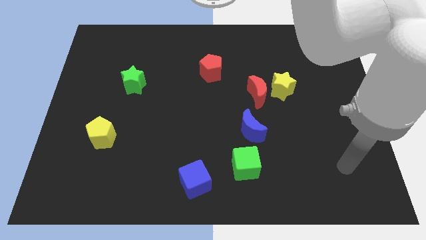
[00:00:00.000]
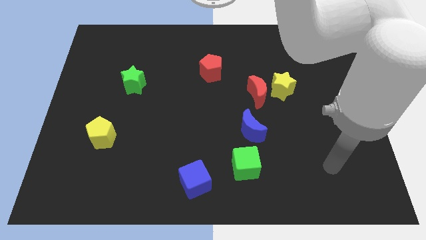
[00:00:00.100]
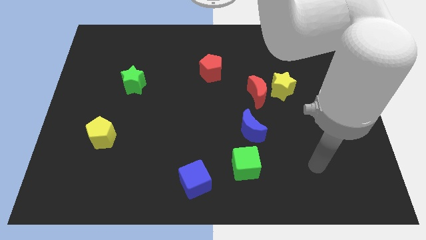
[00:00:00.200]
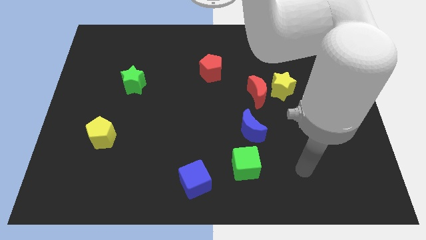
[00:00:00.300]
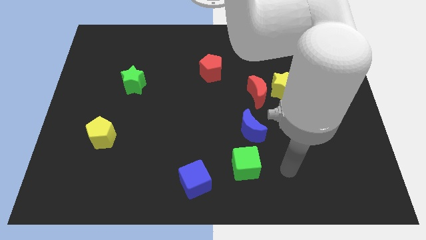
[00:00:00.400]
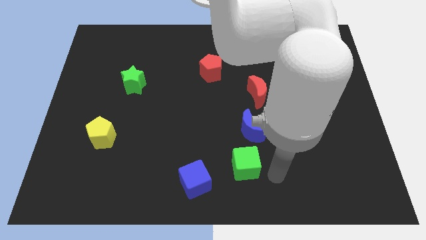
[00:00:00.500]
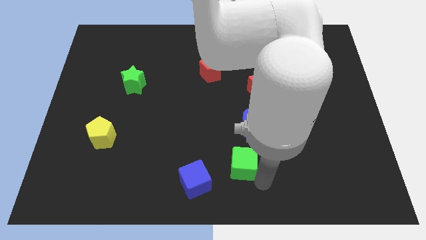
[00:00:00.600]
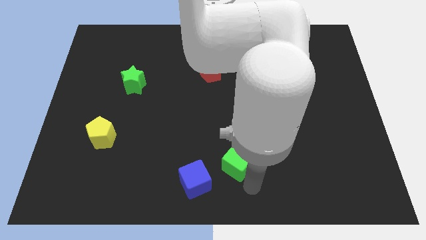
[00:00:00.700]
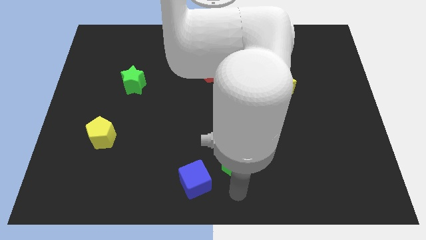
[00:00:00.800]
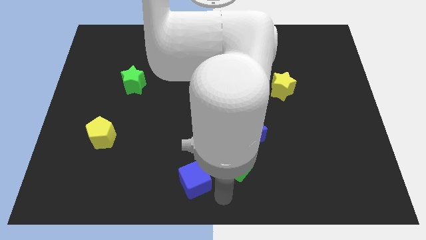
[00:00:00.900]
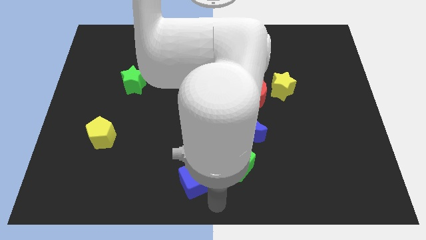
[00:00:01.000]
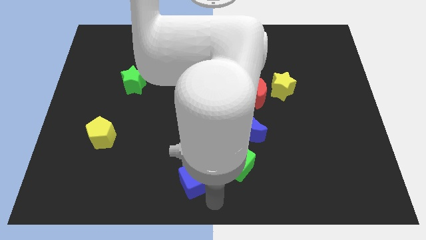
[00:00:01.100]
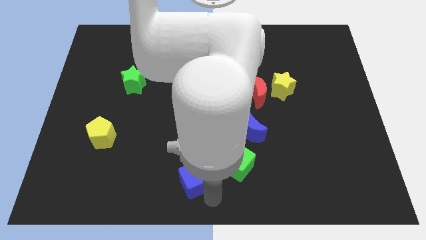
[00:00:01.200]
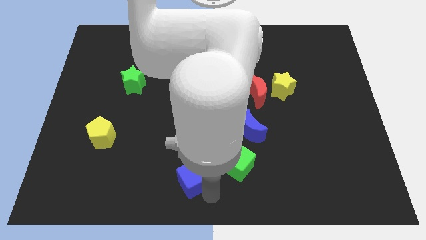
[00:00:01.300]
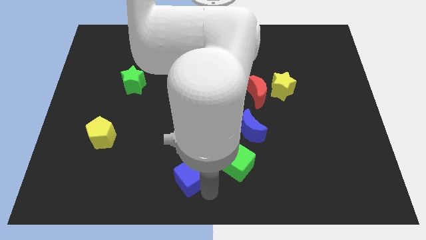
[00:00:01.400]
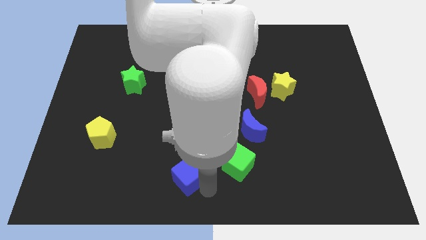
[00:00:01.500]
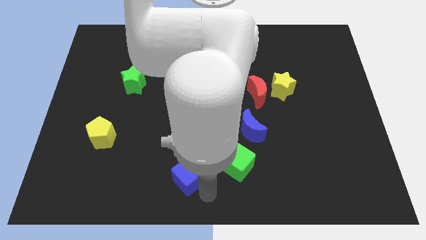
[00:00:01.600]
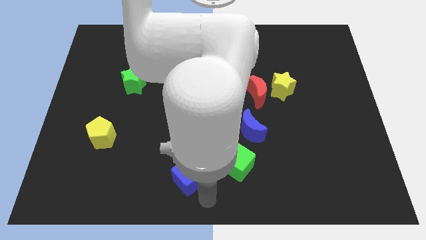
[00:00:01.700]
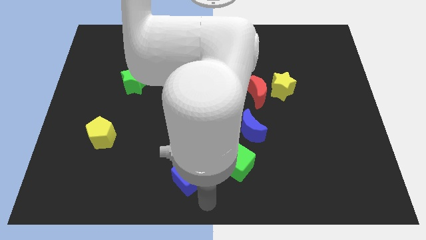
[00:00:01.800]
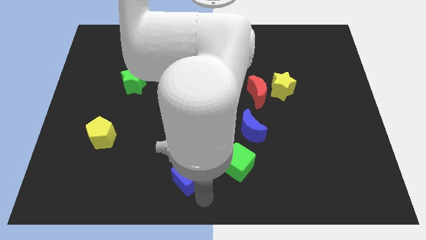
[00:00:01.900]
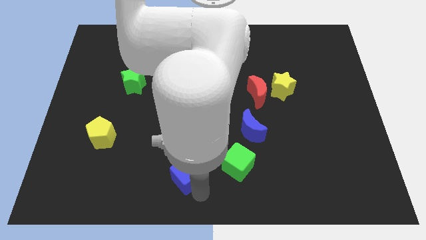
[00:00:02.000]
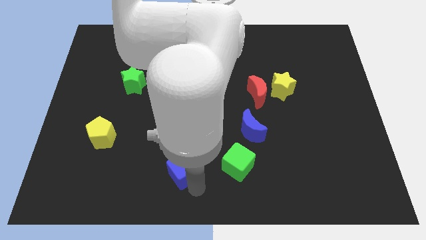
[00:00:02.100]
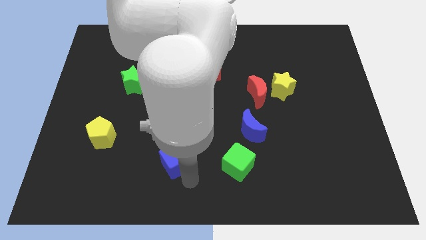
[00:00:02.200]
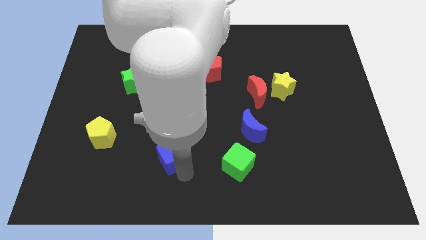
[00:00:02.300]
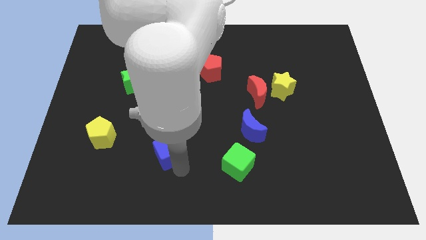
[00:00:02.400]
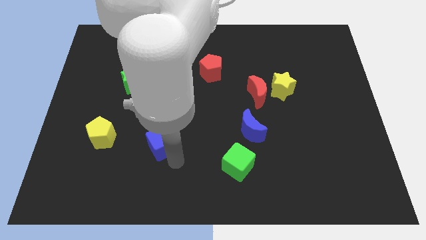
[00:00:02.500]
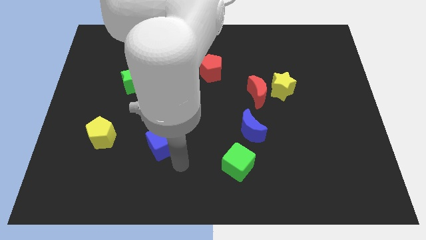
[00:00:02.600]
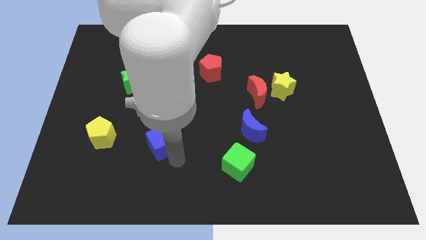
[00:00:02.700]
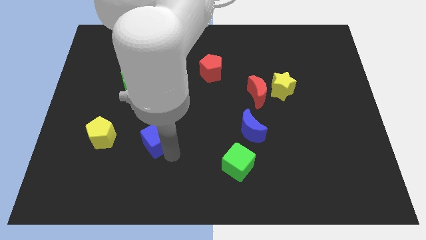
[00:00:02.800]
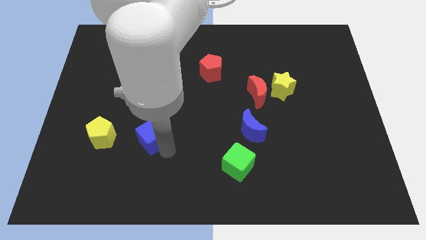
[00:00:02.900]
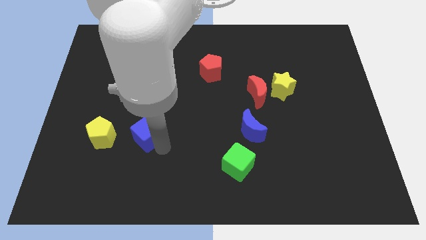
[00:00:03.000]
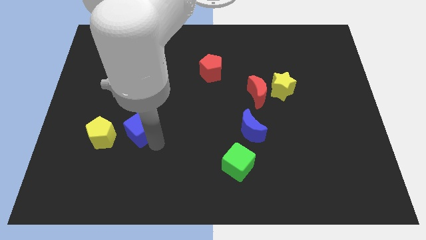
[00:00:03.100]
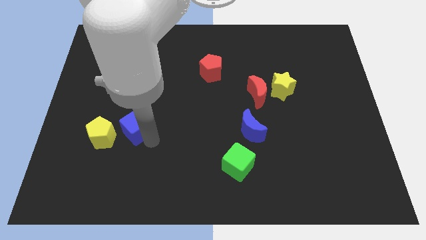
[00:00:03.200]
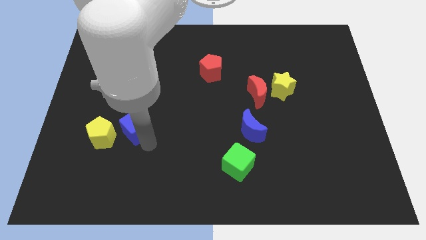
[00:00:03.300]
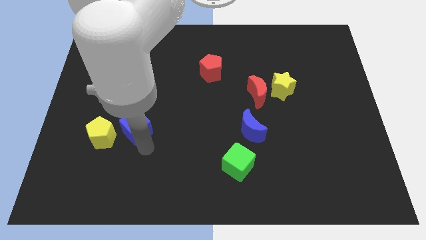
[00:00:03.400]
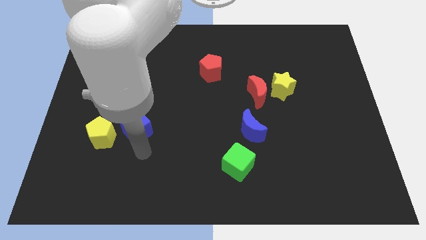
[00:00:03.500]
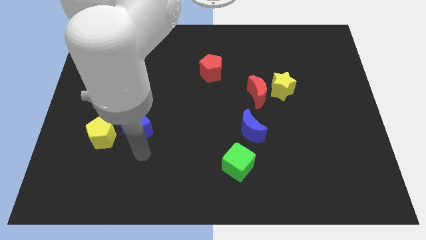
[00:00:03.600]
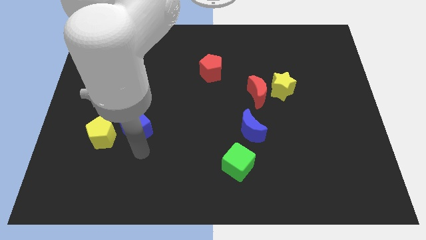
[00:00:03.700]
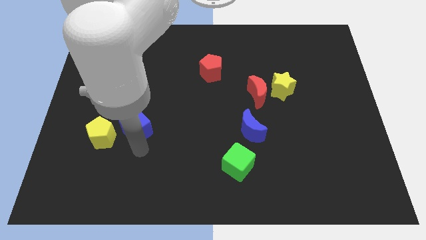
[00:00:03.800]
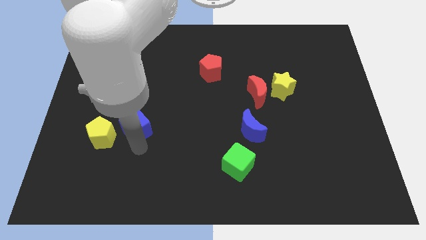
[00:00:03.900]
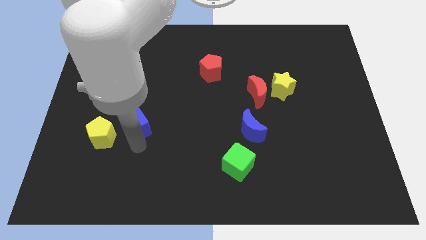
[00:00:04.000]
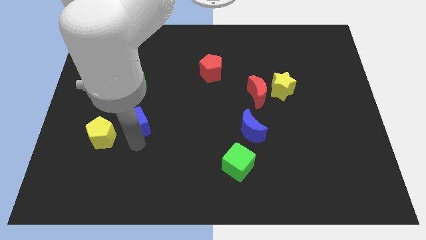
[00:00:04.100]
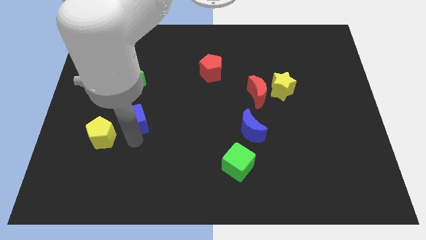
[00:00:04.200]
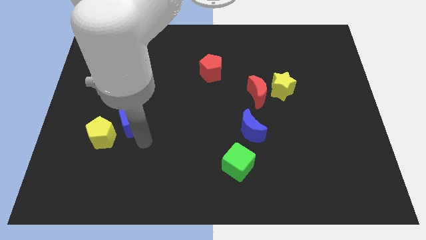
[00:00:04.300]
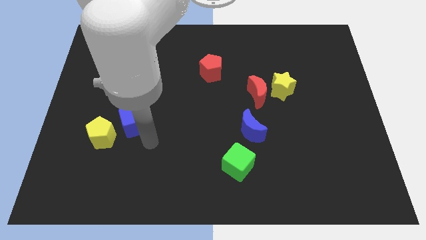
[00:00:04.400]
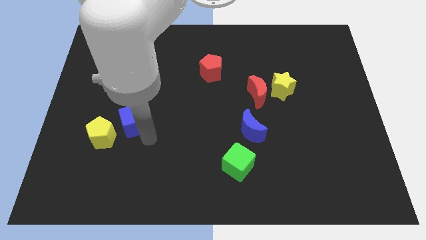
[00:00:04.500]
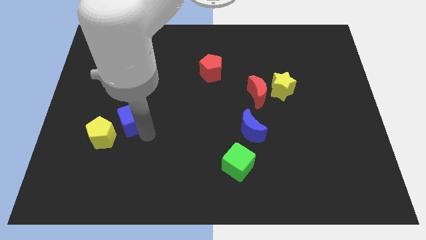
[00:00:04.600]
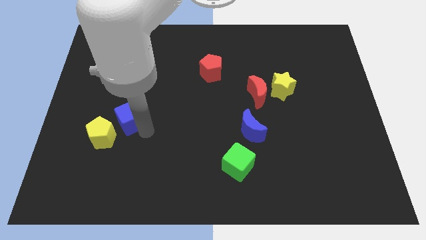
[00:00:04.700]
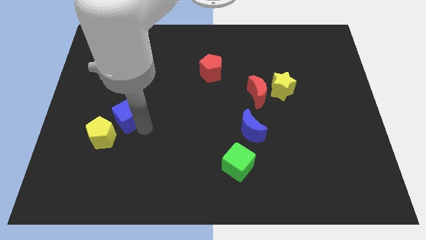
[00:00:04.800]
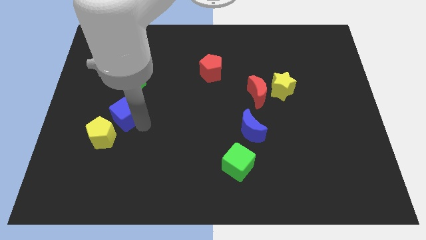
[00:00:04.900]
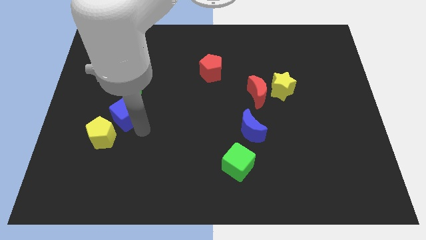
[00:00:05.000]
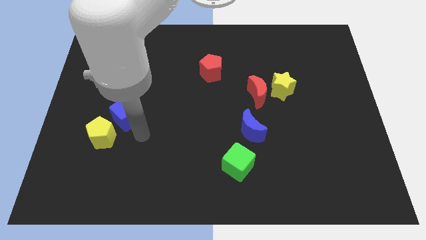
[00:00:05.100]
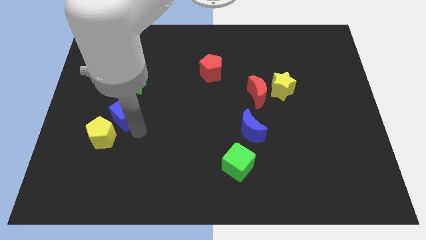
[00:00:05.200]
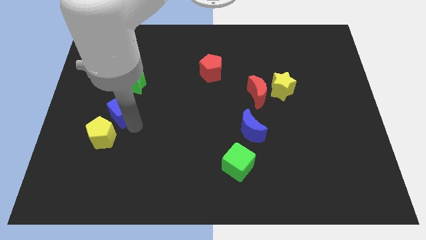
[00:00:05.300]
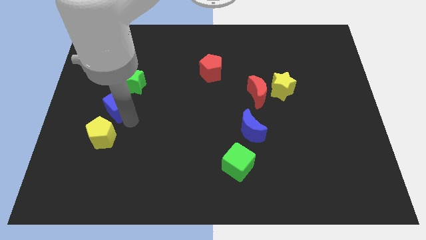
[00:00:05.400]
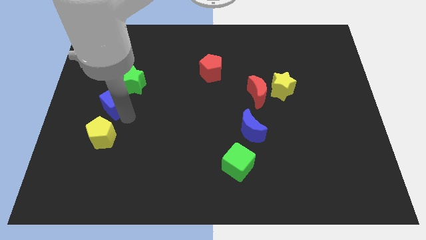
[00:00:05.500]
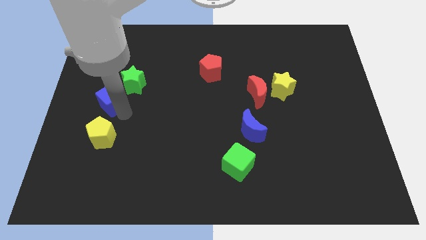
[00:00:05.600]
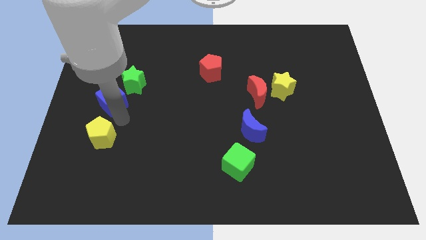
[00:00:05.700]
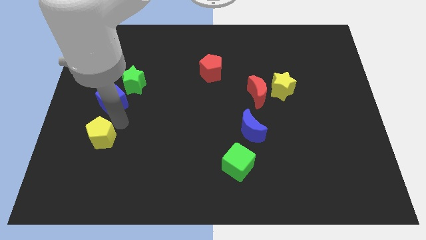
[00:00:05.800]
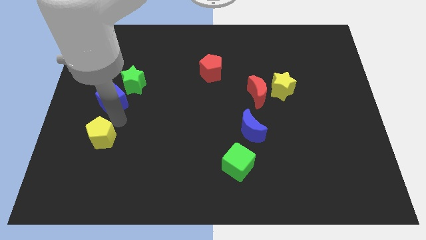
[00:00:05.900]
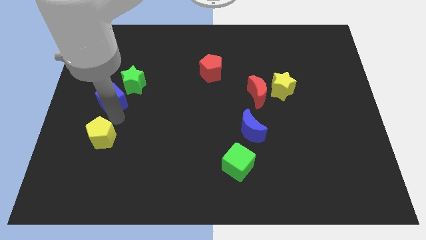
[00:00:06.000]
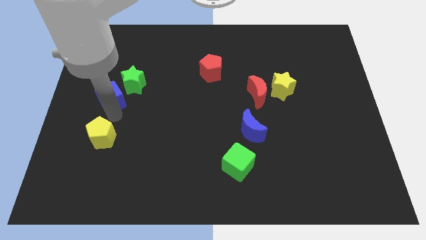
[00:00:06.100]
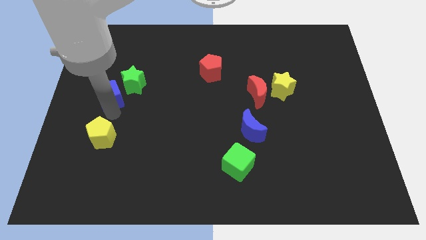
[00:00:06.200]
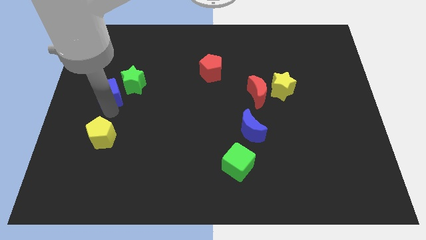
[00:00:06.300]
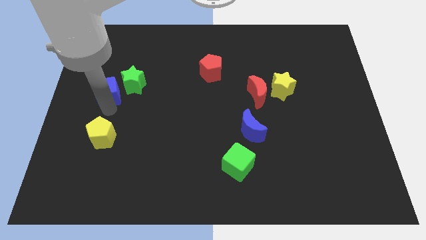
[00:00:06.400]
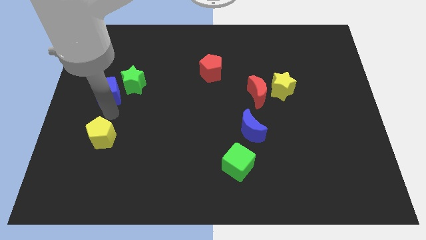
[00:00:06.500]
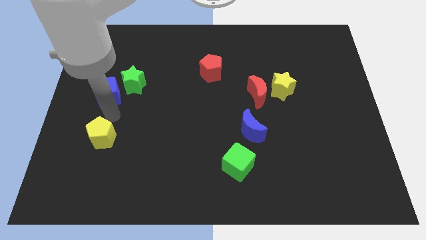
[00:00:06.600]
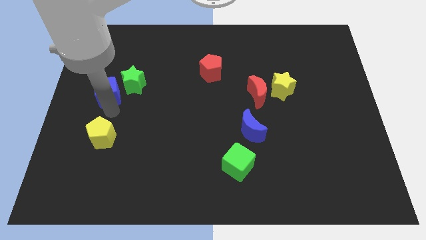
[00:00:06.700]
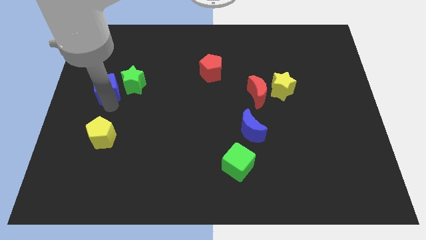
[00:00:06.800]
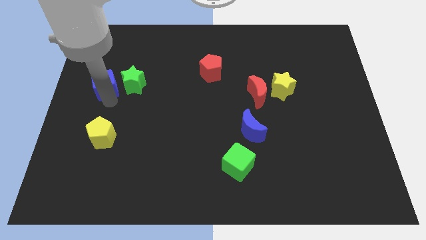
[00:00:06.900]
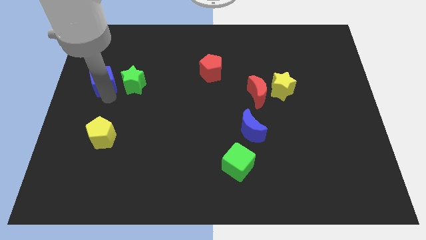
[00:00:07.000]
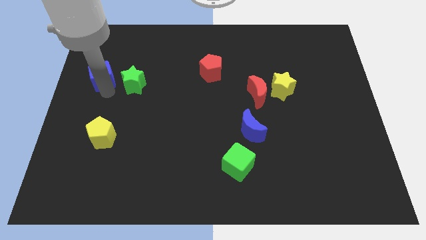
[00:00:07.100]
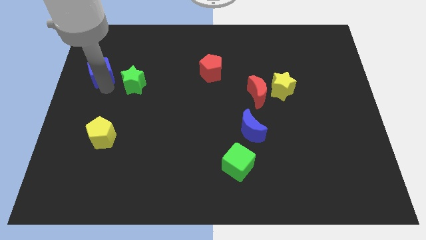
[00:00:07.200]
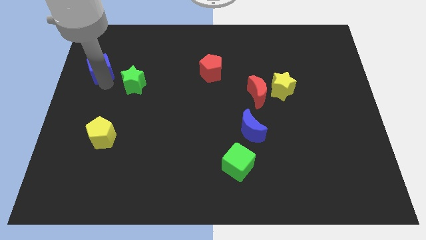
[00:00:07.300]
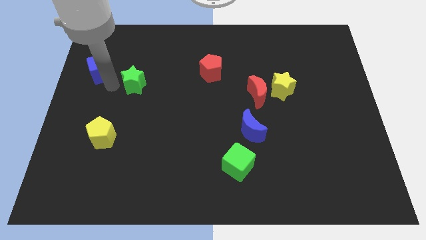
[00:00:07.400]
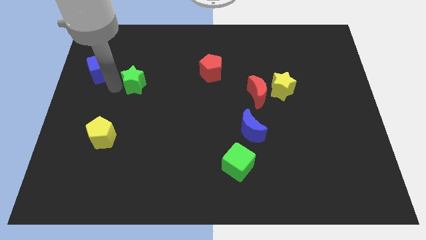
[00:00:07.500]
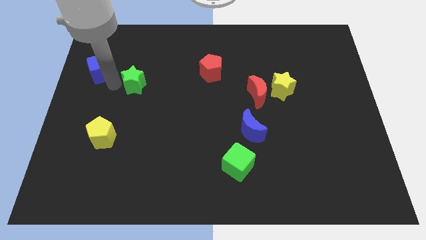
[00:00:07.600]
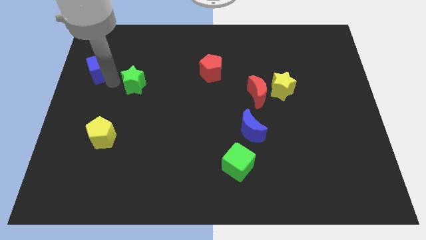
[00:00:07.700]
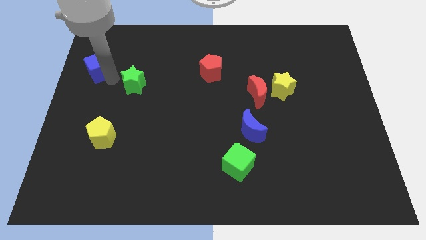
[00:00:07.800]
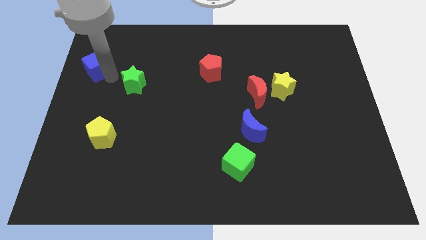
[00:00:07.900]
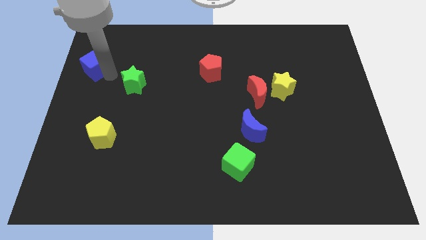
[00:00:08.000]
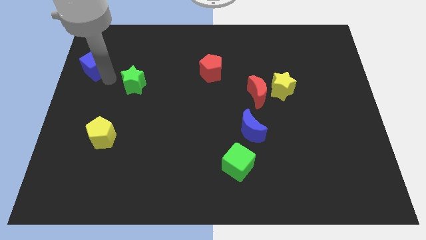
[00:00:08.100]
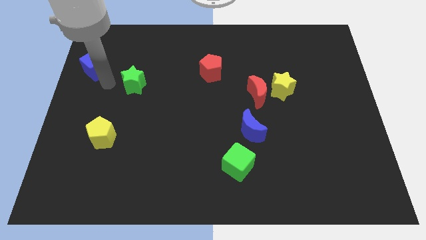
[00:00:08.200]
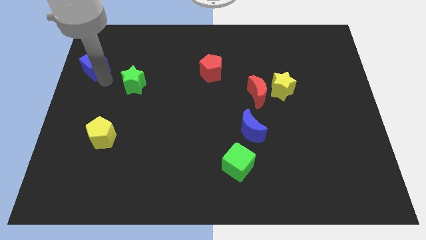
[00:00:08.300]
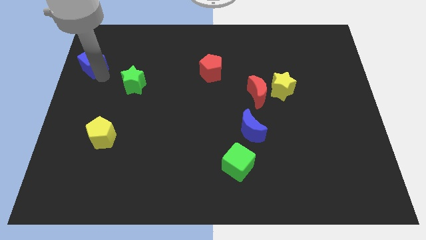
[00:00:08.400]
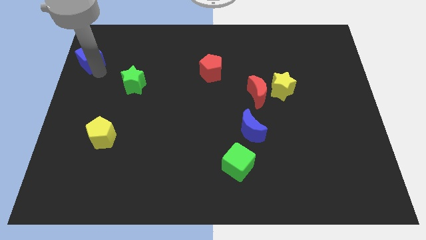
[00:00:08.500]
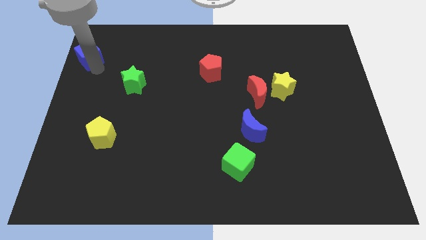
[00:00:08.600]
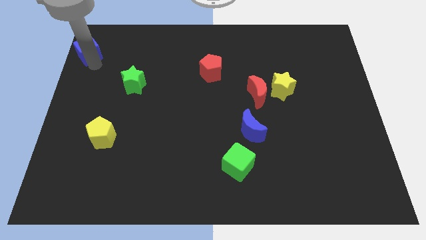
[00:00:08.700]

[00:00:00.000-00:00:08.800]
put the blue cube to the top left corner
